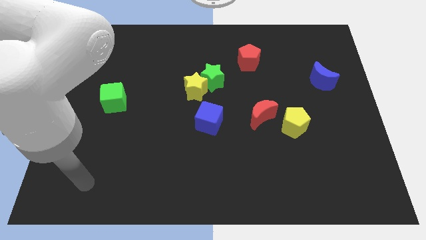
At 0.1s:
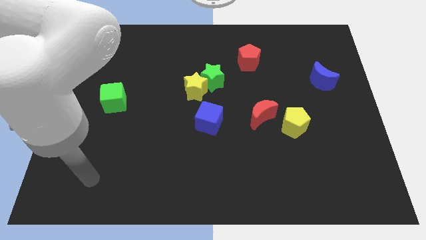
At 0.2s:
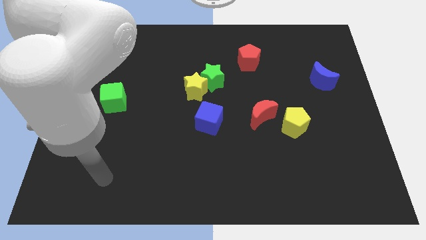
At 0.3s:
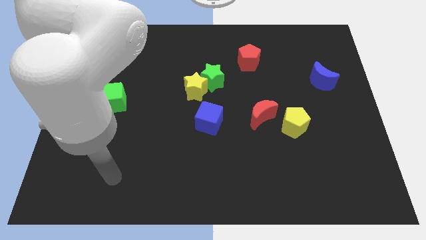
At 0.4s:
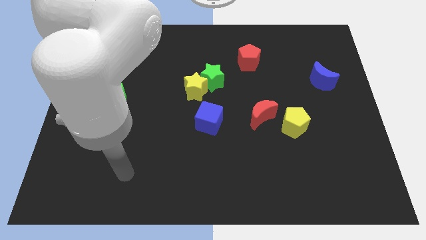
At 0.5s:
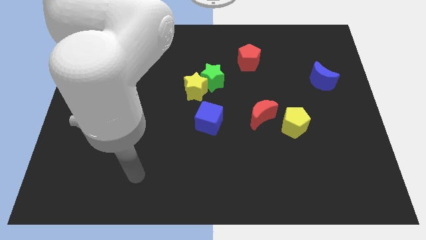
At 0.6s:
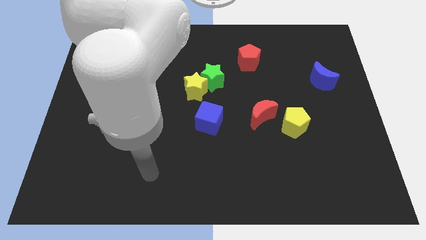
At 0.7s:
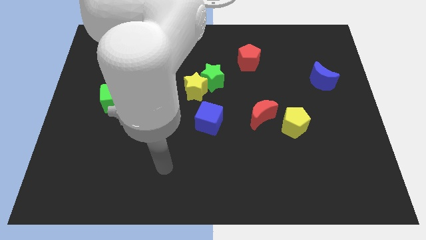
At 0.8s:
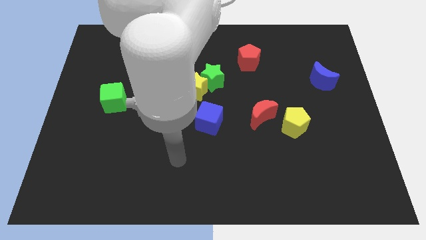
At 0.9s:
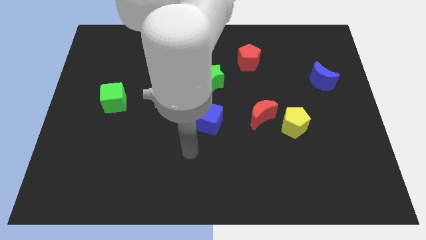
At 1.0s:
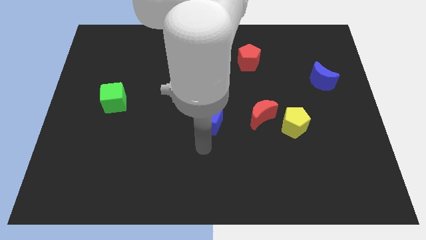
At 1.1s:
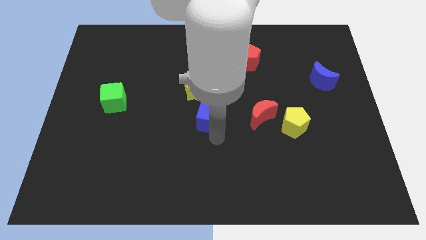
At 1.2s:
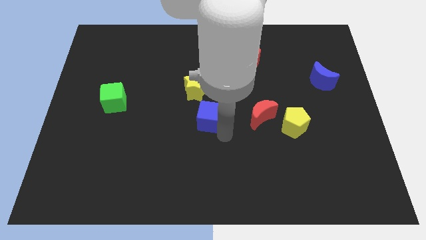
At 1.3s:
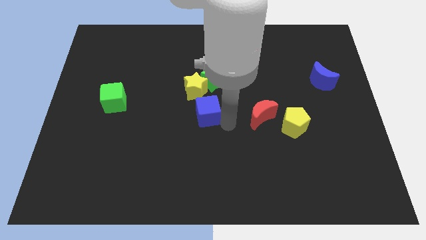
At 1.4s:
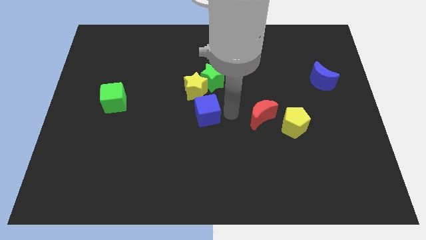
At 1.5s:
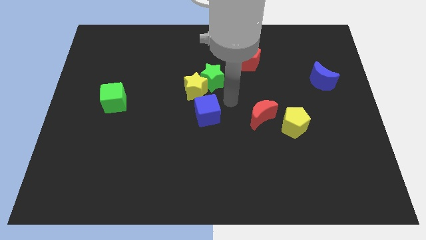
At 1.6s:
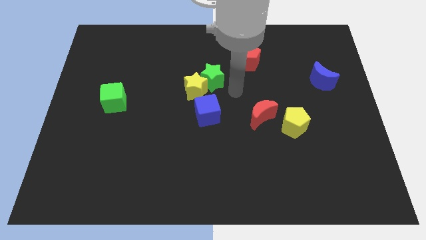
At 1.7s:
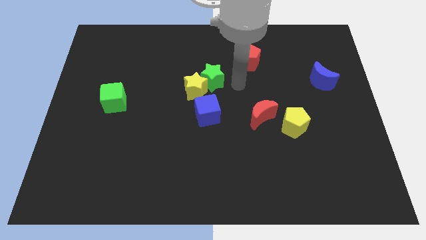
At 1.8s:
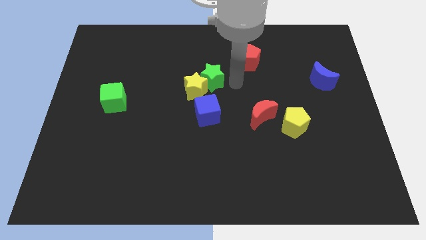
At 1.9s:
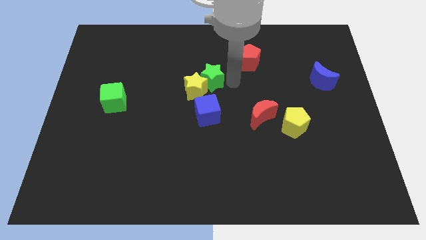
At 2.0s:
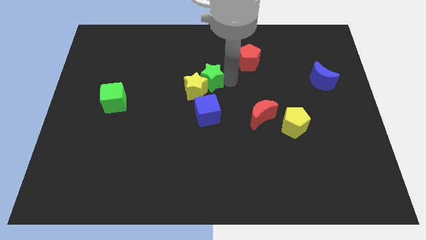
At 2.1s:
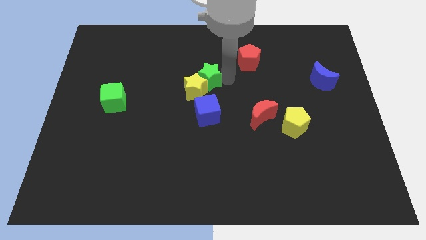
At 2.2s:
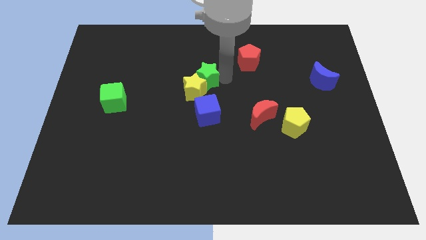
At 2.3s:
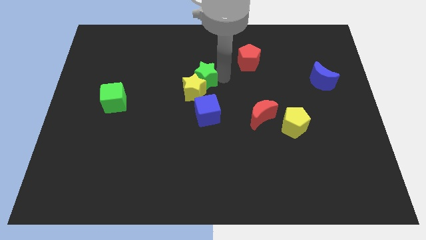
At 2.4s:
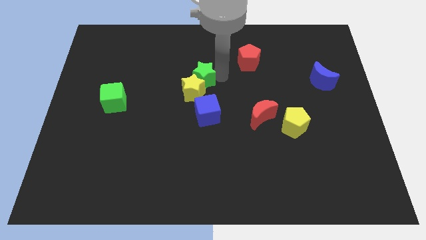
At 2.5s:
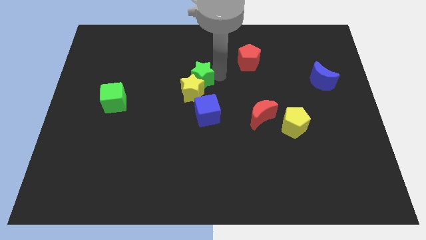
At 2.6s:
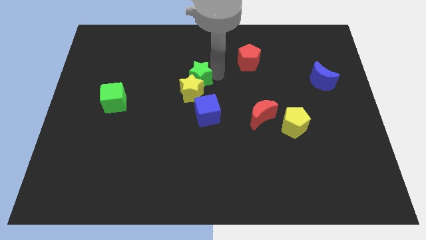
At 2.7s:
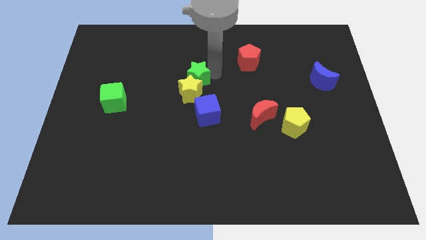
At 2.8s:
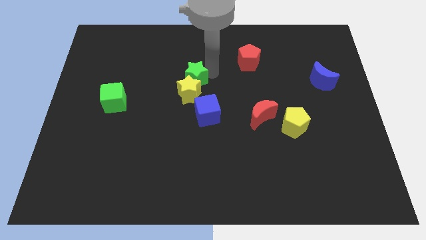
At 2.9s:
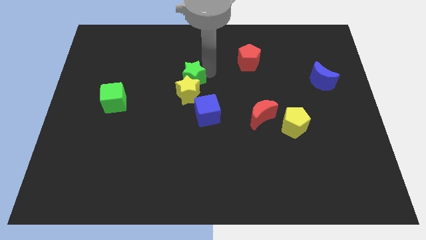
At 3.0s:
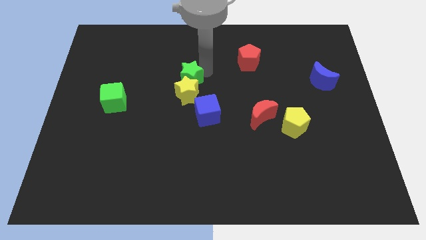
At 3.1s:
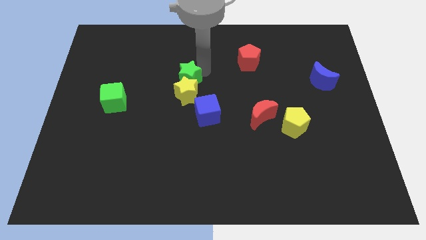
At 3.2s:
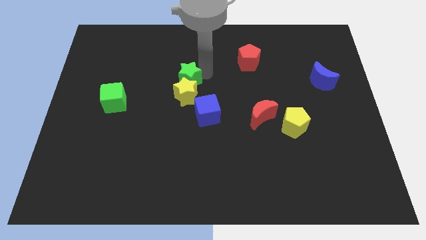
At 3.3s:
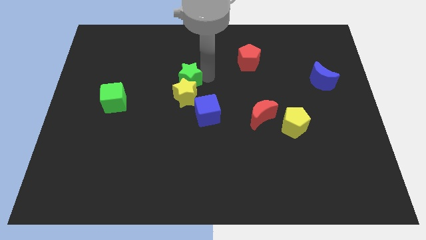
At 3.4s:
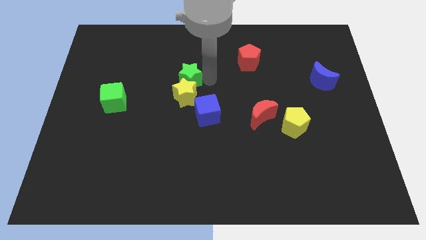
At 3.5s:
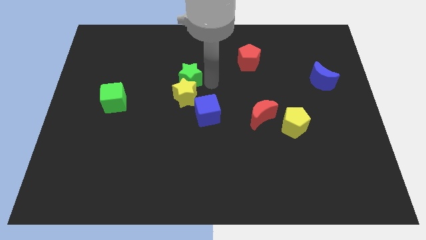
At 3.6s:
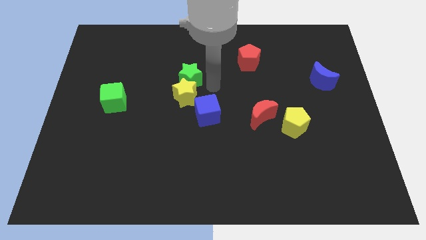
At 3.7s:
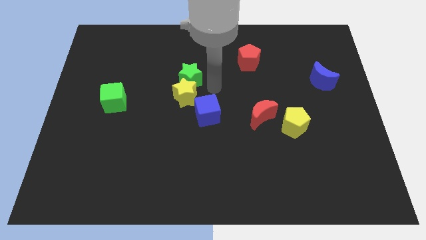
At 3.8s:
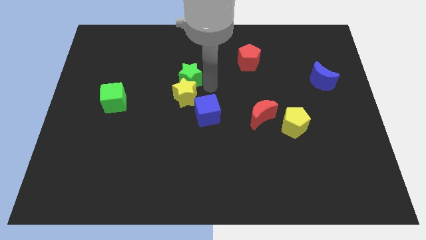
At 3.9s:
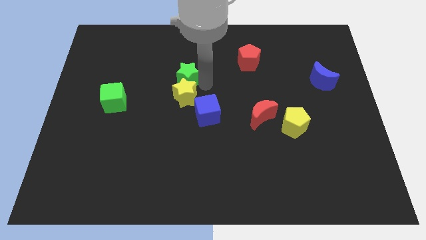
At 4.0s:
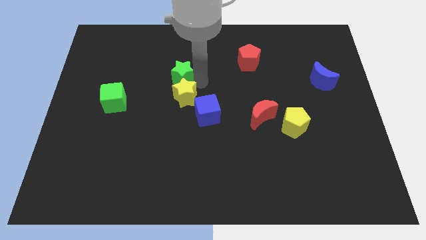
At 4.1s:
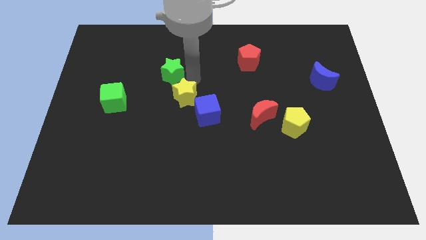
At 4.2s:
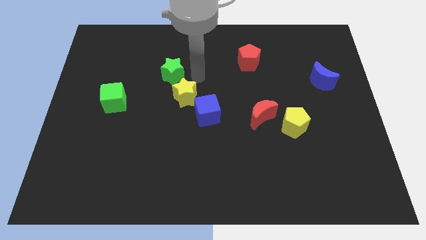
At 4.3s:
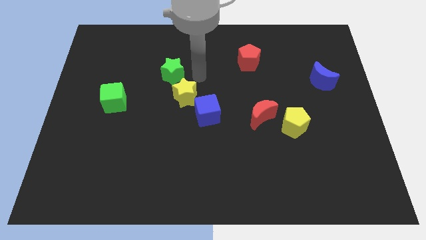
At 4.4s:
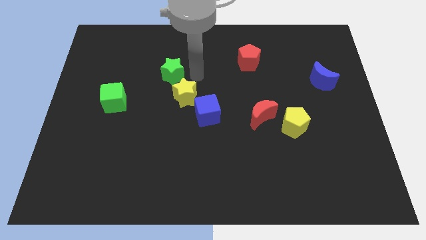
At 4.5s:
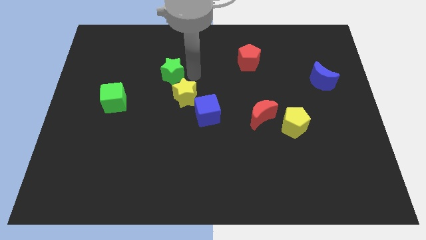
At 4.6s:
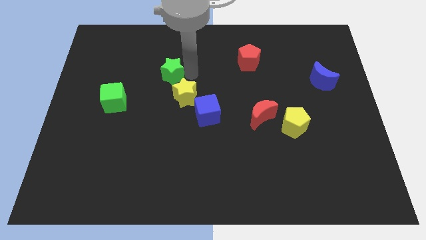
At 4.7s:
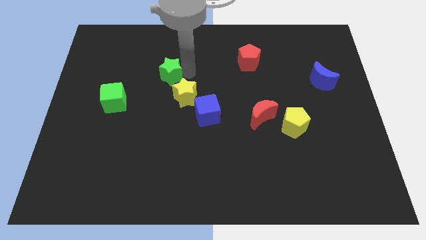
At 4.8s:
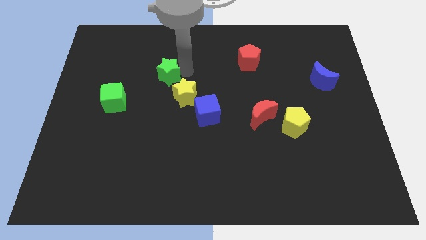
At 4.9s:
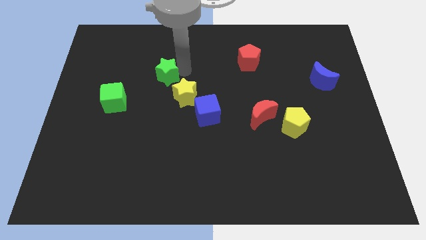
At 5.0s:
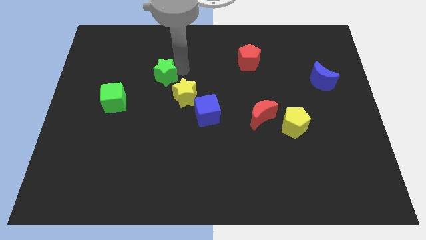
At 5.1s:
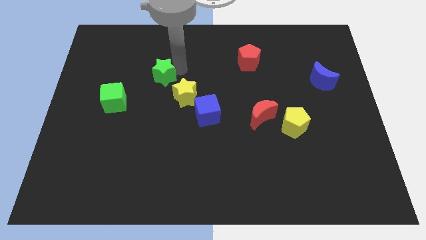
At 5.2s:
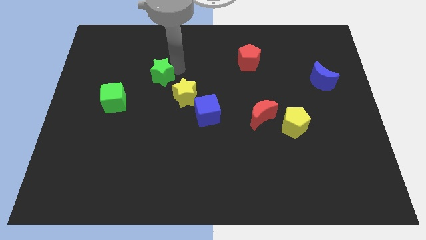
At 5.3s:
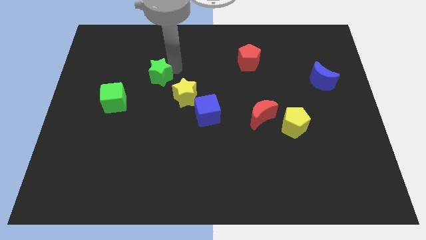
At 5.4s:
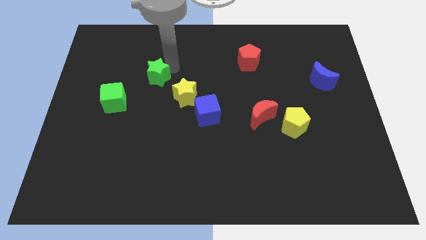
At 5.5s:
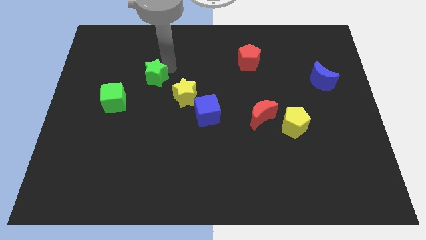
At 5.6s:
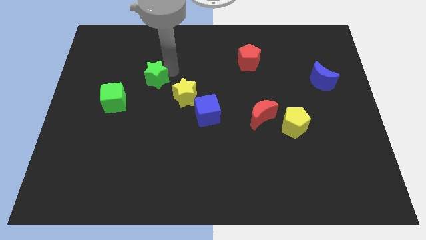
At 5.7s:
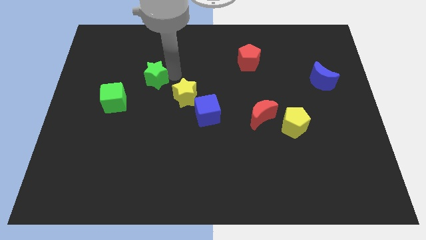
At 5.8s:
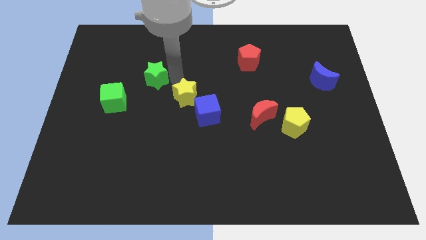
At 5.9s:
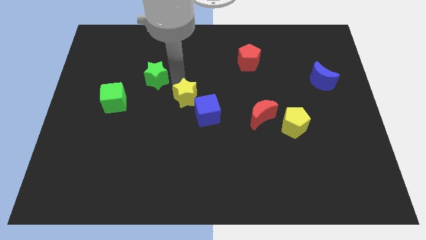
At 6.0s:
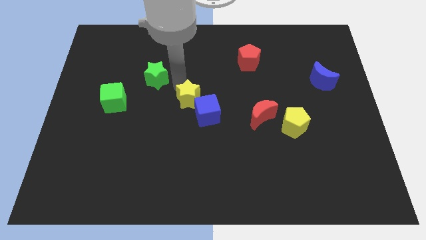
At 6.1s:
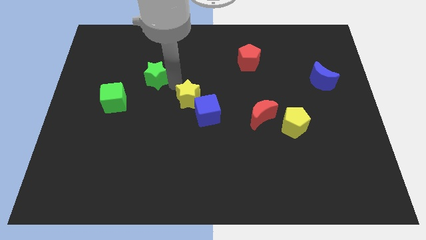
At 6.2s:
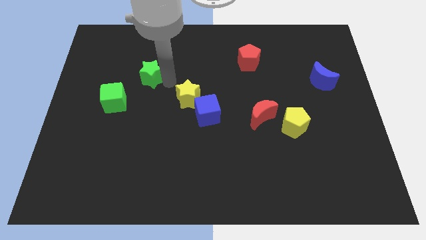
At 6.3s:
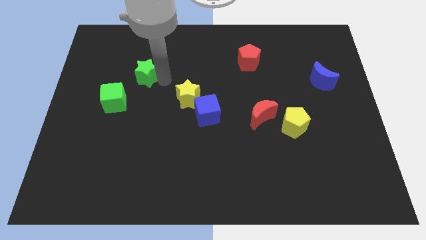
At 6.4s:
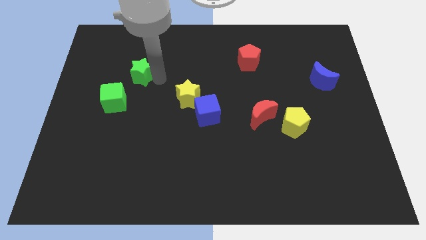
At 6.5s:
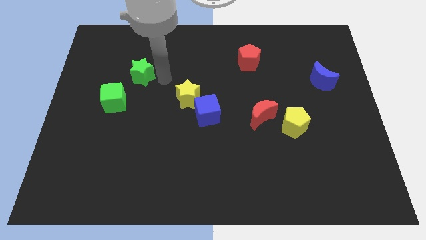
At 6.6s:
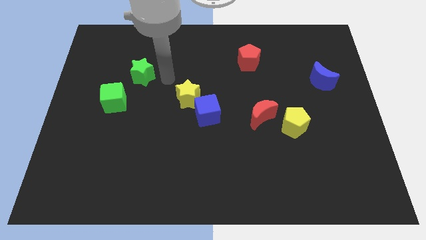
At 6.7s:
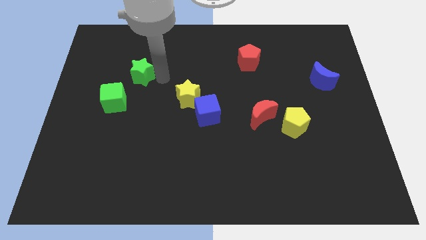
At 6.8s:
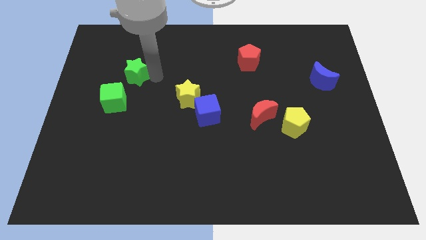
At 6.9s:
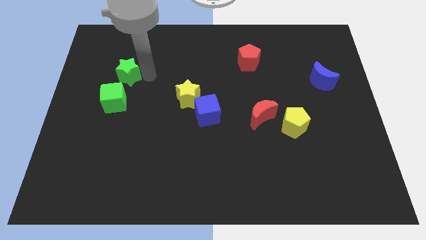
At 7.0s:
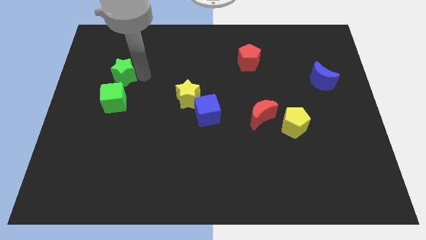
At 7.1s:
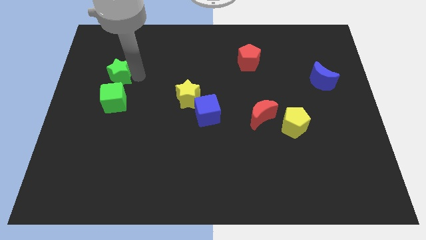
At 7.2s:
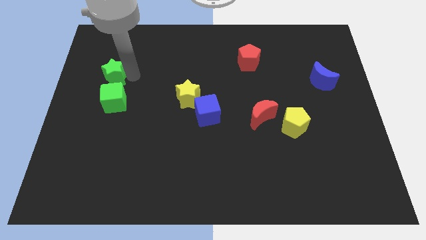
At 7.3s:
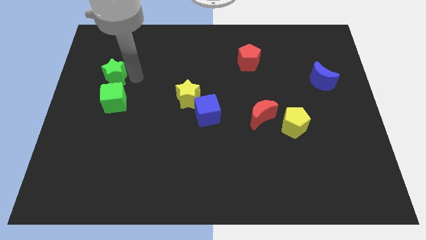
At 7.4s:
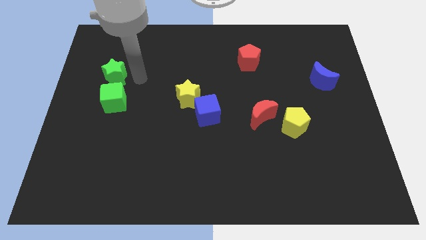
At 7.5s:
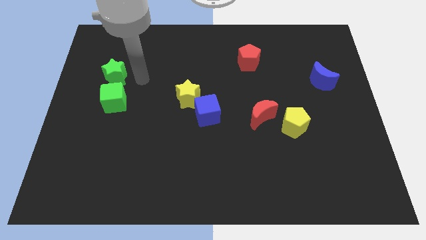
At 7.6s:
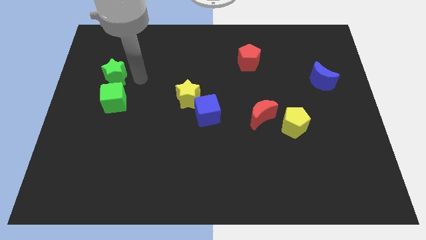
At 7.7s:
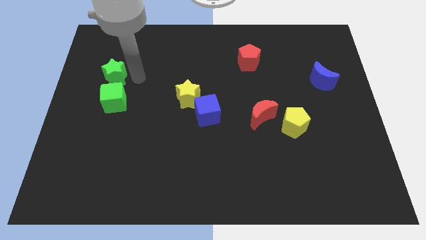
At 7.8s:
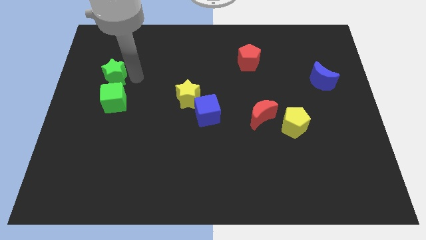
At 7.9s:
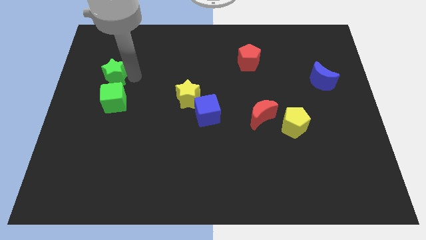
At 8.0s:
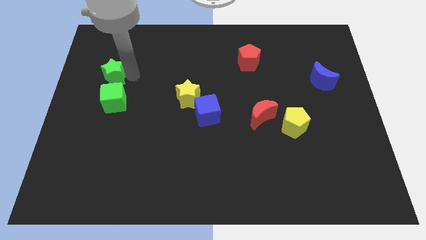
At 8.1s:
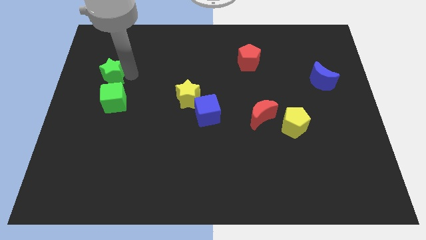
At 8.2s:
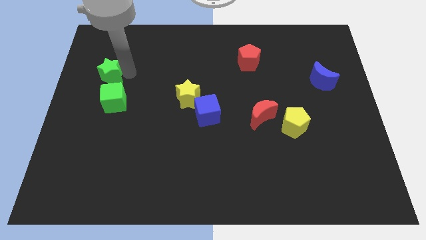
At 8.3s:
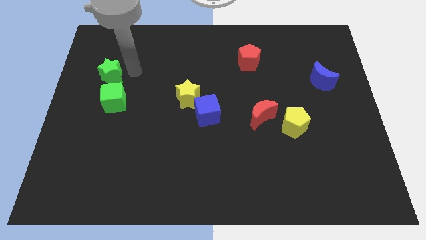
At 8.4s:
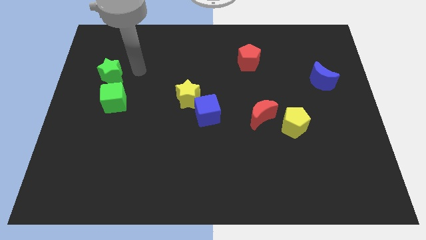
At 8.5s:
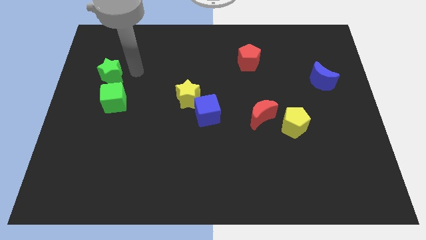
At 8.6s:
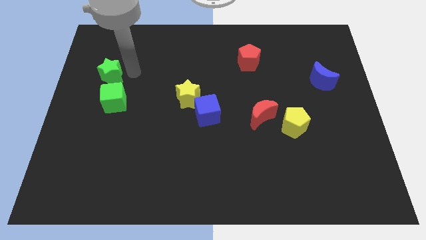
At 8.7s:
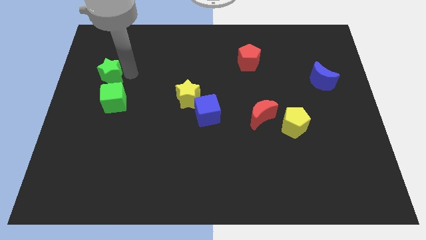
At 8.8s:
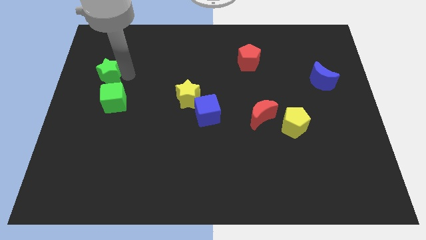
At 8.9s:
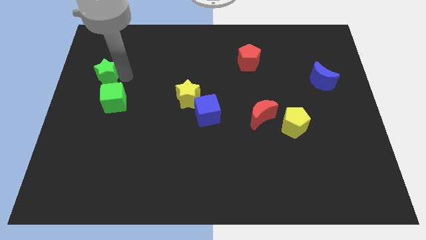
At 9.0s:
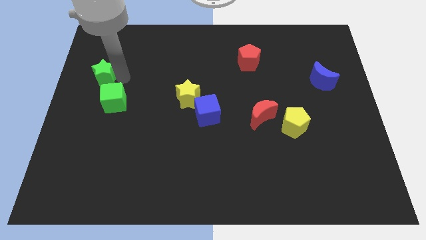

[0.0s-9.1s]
move the green star to the left side of the board
